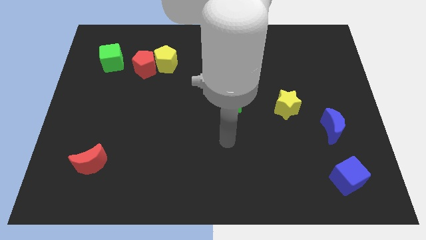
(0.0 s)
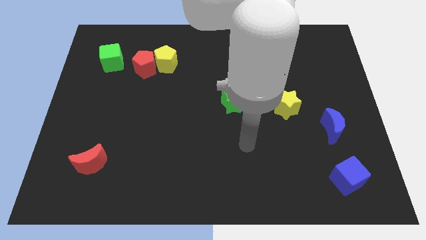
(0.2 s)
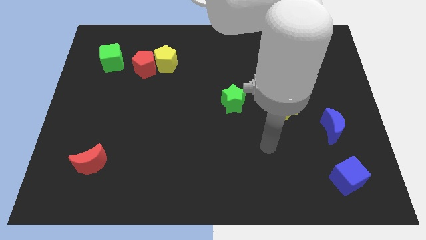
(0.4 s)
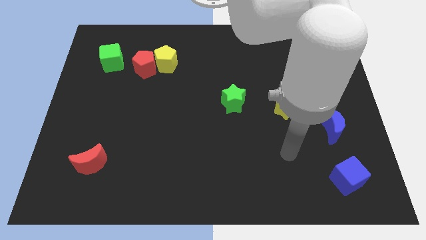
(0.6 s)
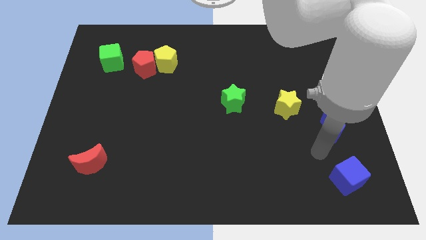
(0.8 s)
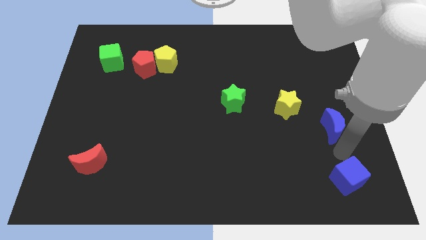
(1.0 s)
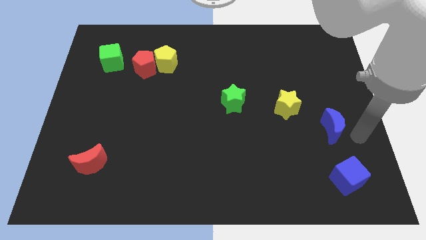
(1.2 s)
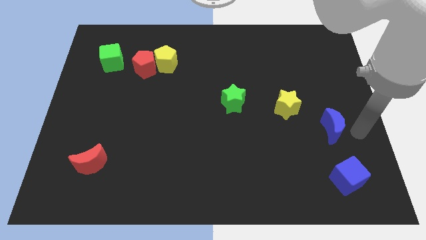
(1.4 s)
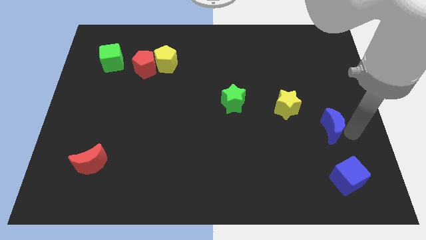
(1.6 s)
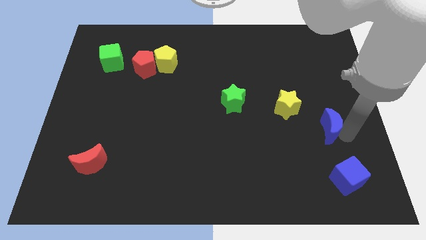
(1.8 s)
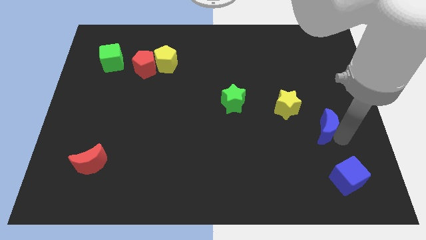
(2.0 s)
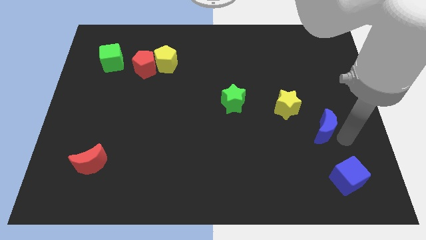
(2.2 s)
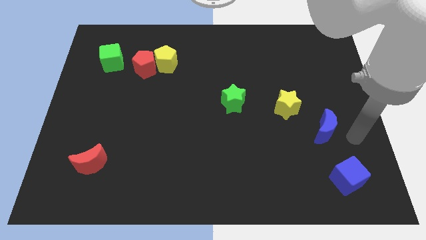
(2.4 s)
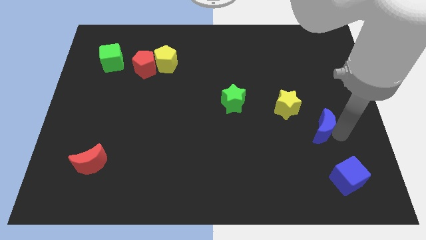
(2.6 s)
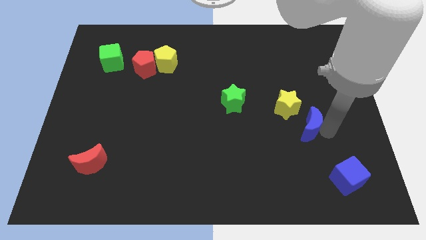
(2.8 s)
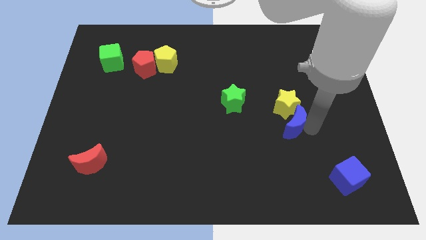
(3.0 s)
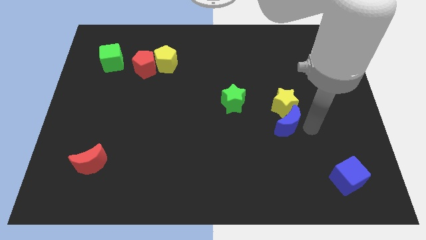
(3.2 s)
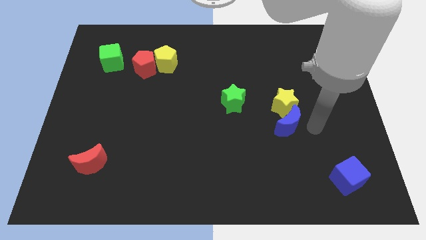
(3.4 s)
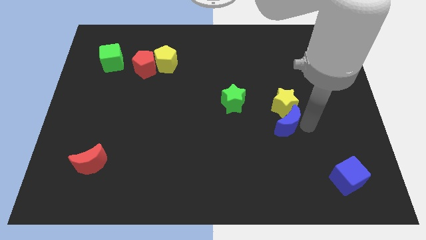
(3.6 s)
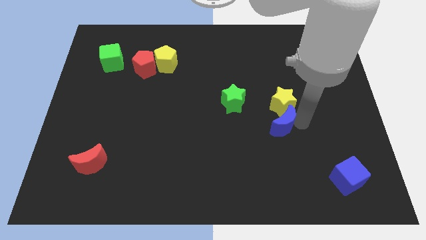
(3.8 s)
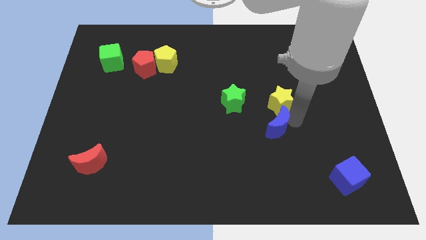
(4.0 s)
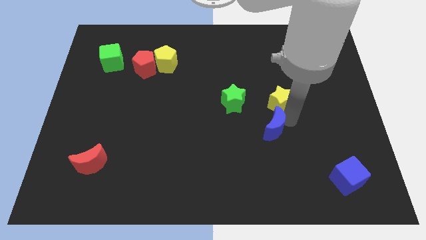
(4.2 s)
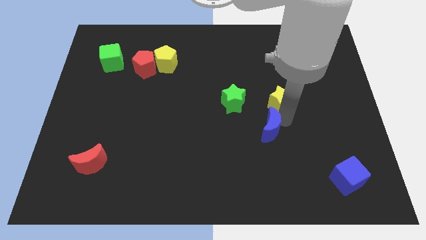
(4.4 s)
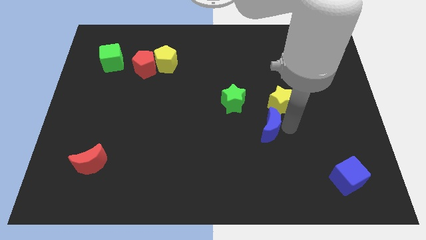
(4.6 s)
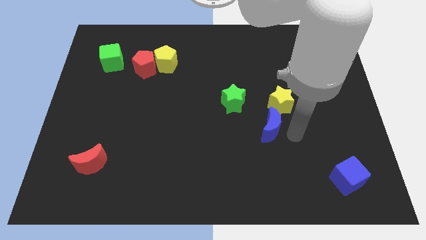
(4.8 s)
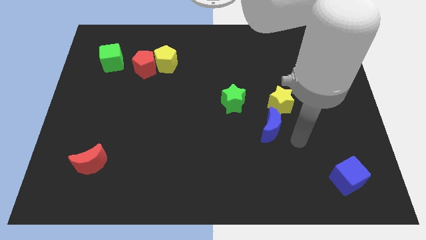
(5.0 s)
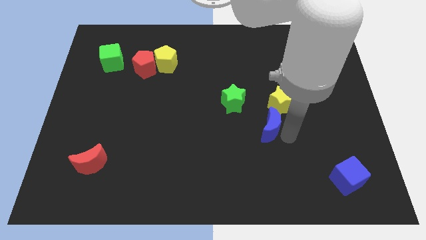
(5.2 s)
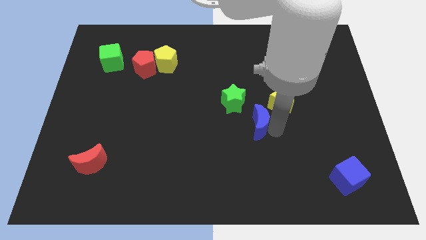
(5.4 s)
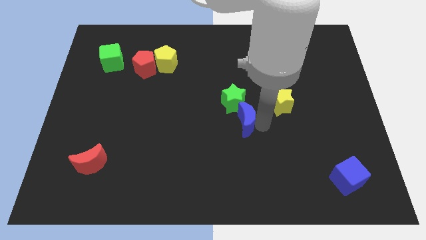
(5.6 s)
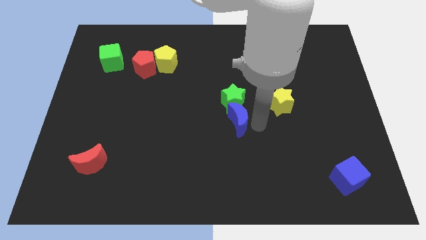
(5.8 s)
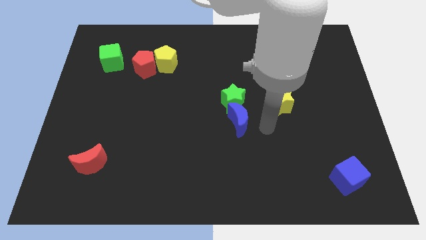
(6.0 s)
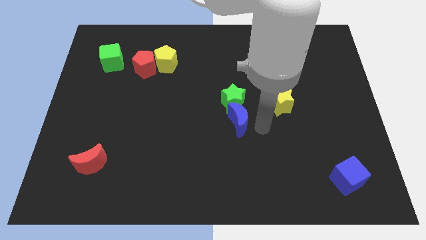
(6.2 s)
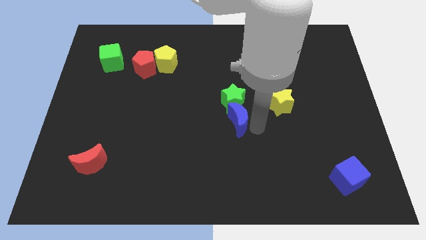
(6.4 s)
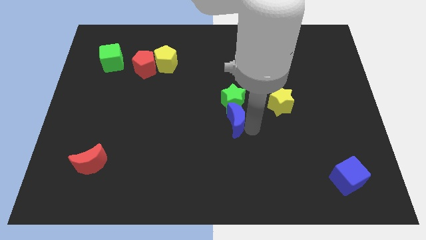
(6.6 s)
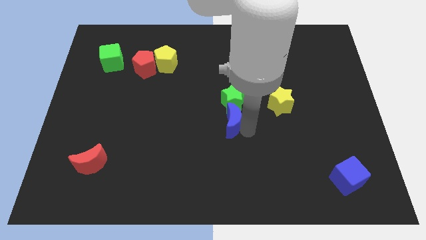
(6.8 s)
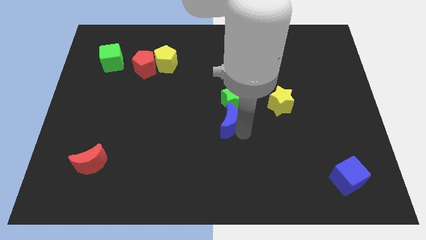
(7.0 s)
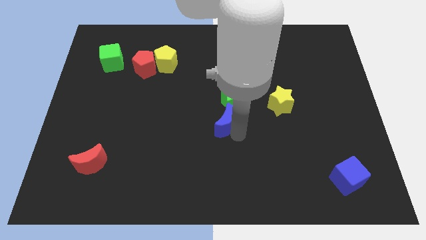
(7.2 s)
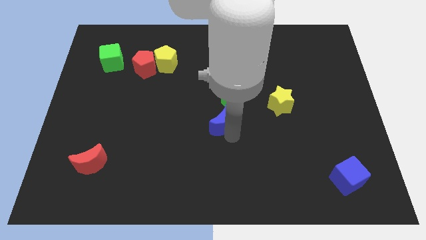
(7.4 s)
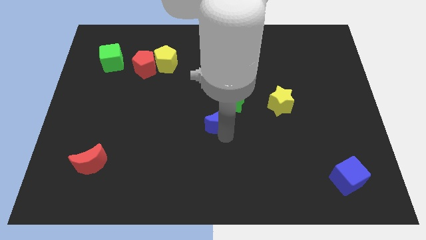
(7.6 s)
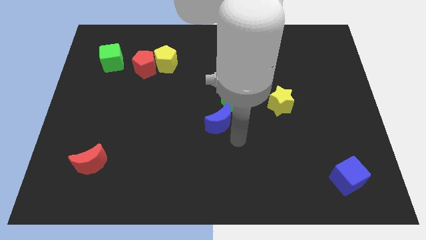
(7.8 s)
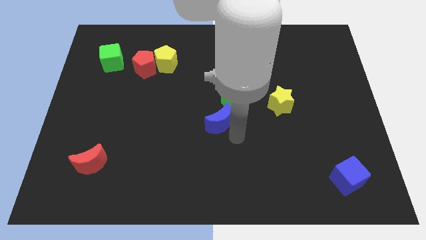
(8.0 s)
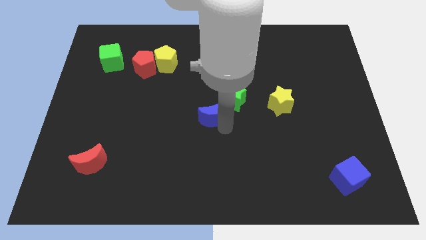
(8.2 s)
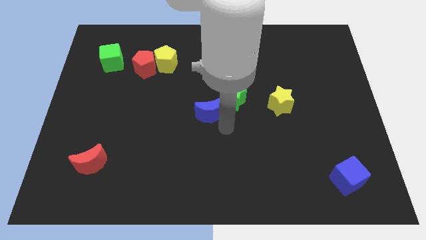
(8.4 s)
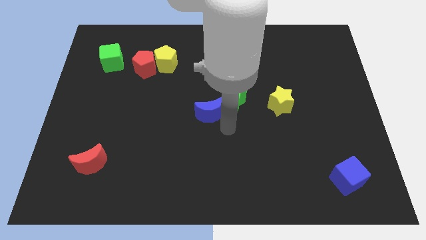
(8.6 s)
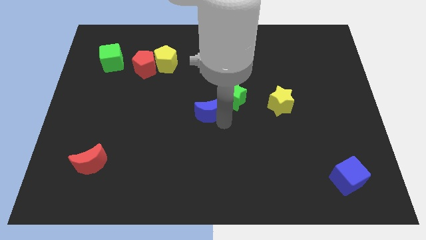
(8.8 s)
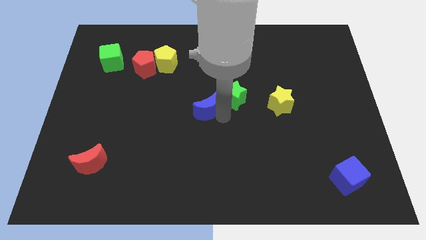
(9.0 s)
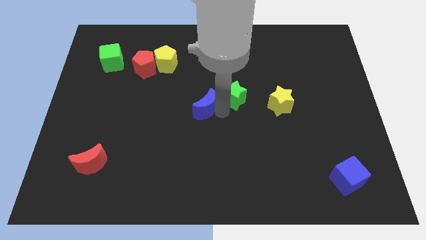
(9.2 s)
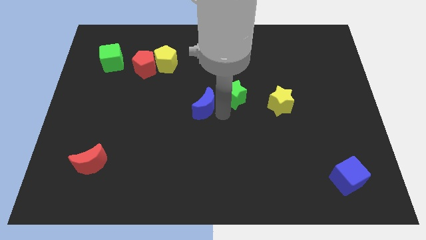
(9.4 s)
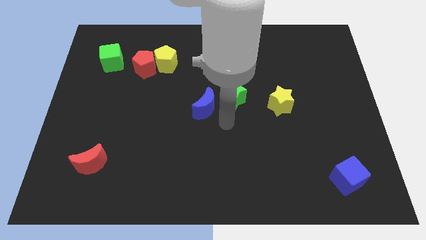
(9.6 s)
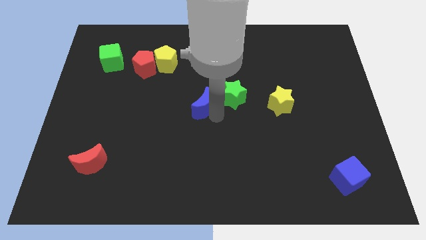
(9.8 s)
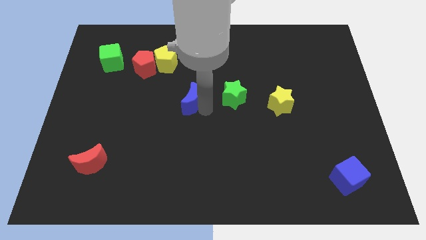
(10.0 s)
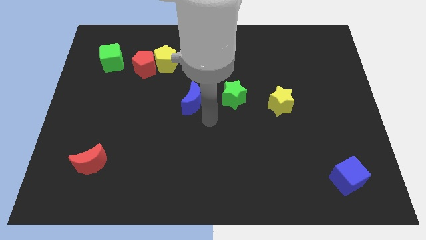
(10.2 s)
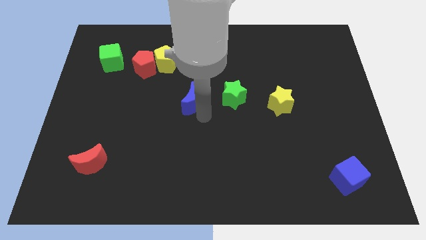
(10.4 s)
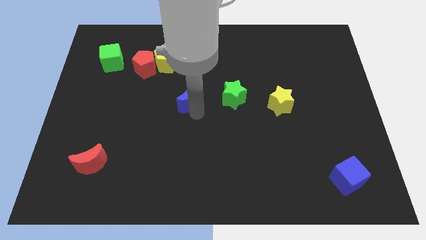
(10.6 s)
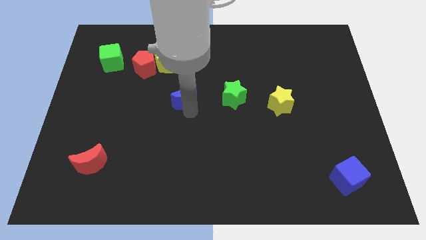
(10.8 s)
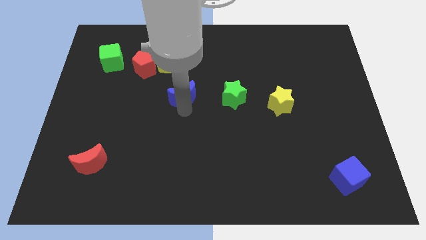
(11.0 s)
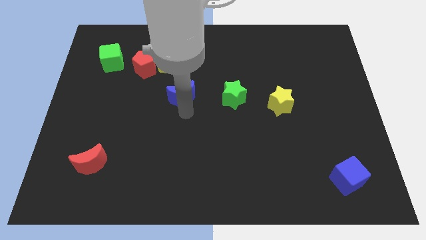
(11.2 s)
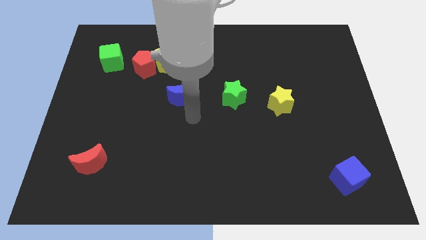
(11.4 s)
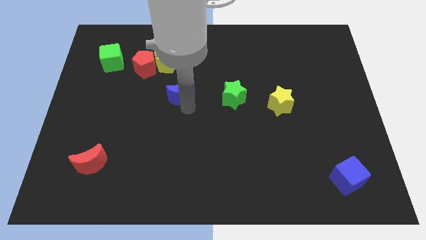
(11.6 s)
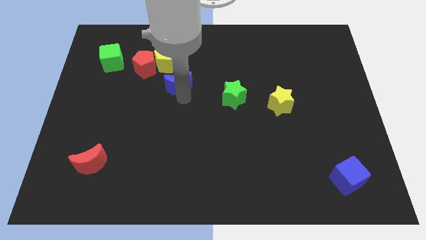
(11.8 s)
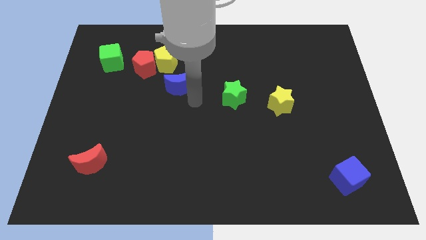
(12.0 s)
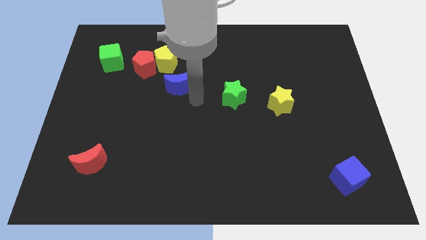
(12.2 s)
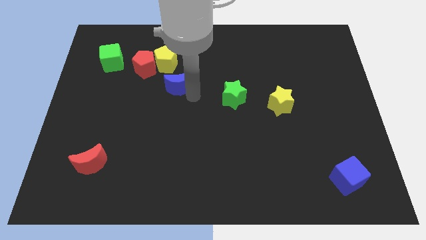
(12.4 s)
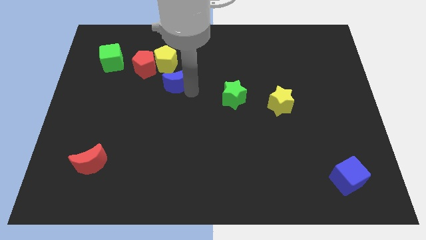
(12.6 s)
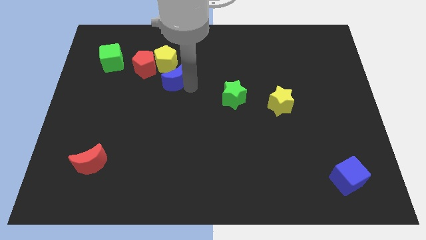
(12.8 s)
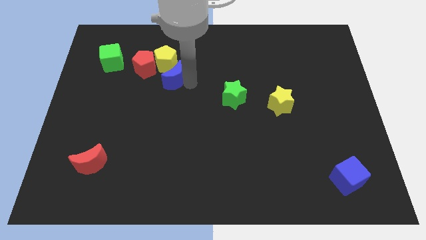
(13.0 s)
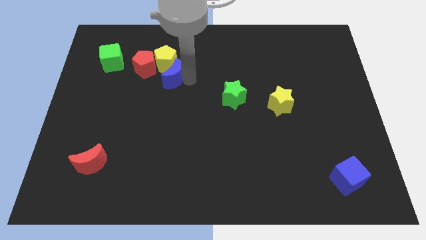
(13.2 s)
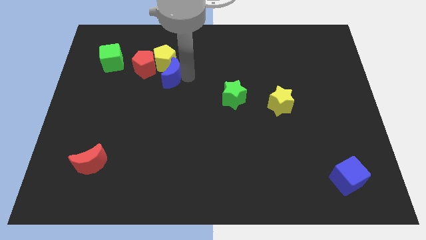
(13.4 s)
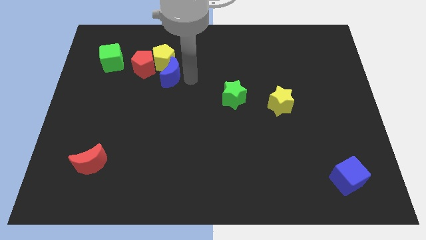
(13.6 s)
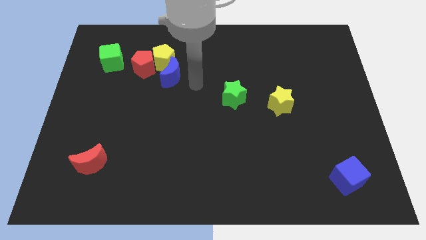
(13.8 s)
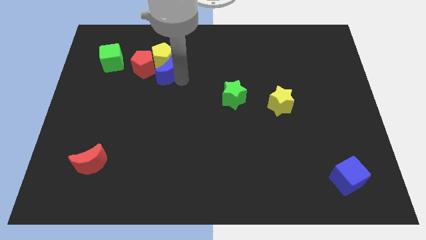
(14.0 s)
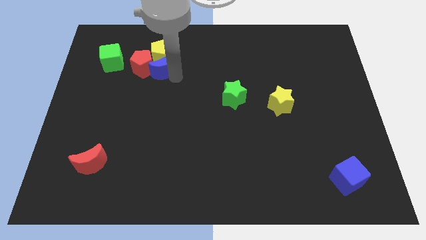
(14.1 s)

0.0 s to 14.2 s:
move the blue moon next to the red pentagon

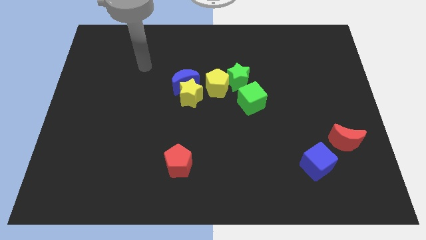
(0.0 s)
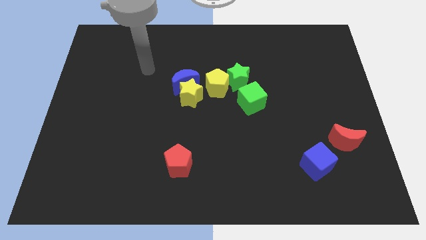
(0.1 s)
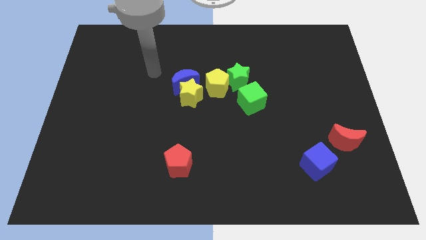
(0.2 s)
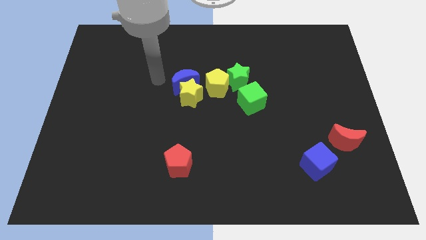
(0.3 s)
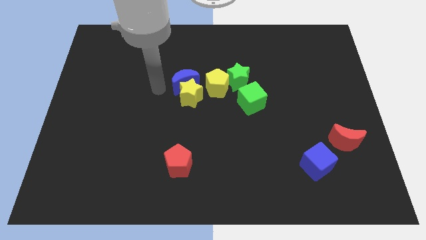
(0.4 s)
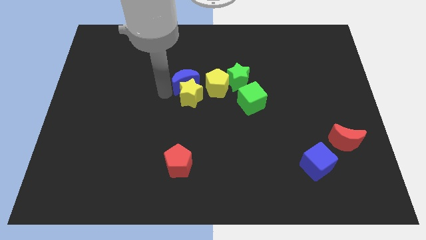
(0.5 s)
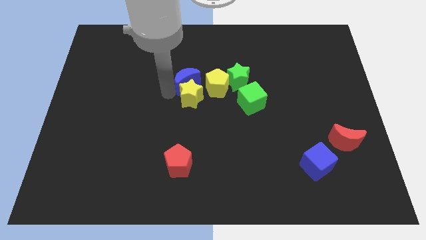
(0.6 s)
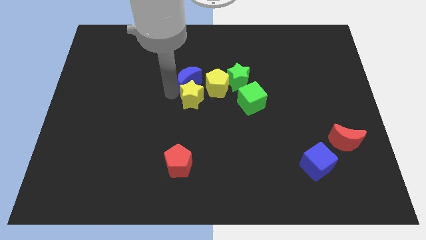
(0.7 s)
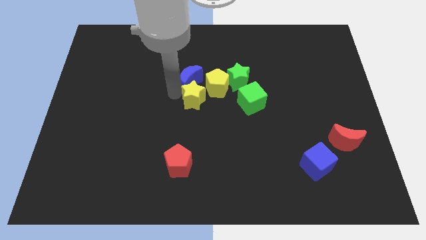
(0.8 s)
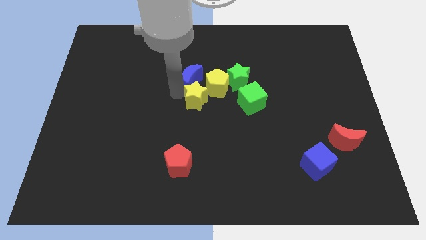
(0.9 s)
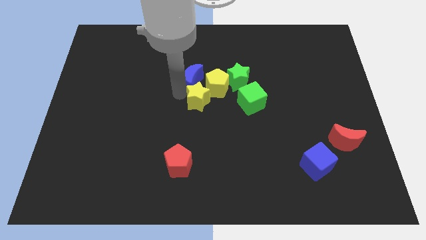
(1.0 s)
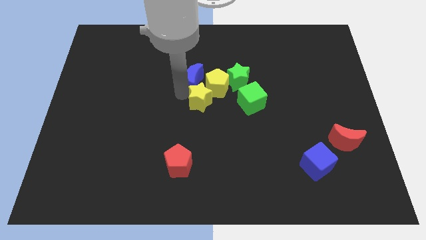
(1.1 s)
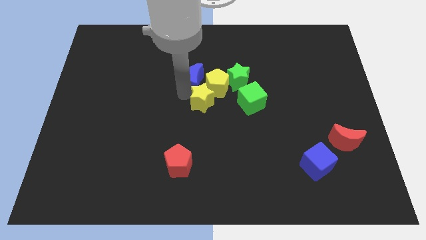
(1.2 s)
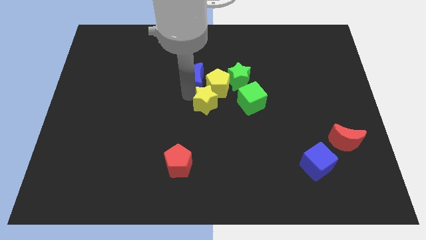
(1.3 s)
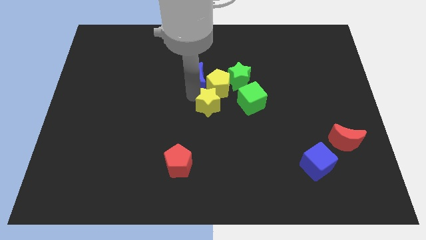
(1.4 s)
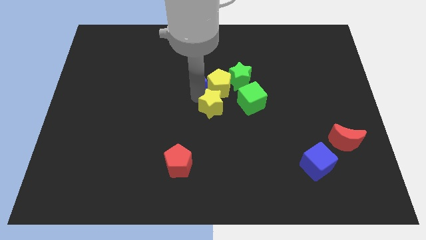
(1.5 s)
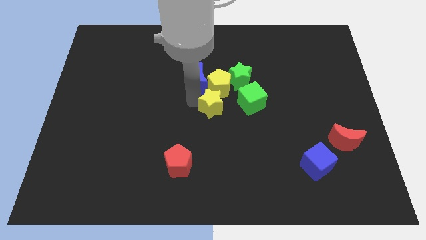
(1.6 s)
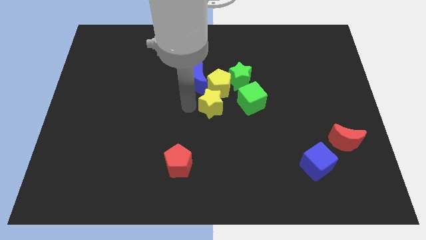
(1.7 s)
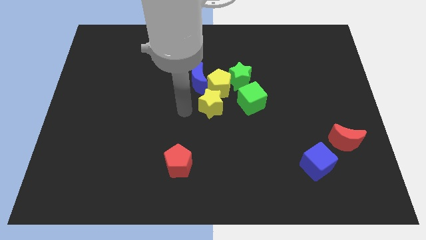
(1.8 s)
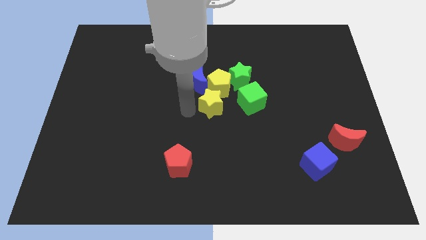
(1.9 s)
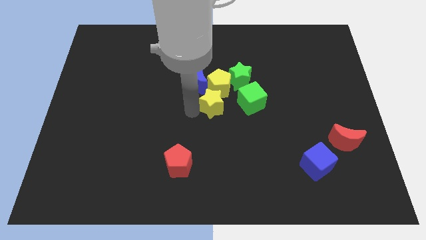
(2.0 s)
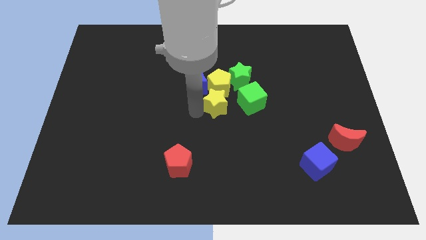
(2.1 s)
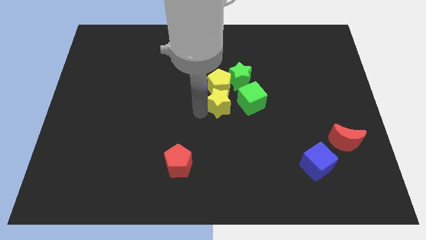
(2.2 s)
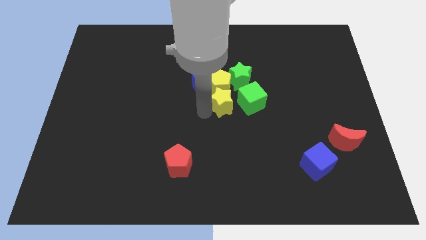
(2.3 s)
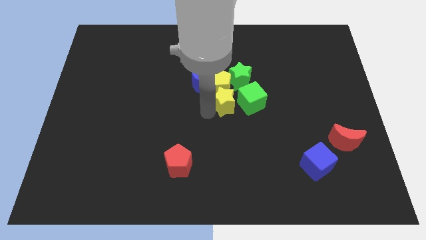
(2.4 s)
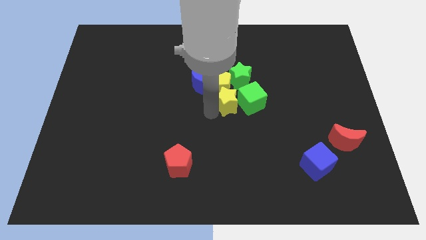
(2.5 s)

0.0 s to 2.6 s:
slide the yellow star next to the green cube
